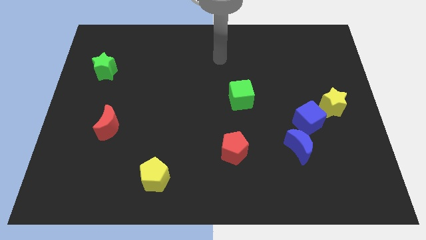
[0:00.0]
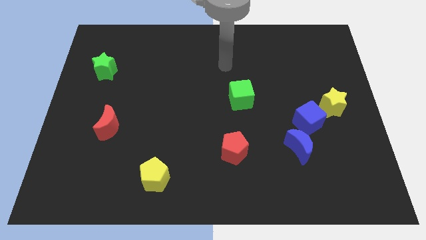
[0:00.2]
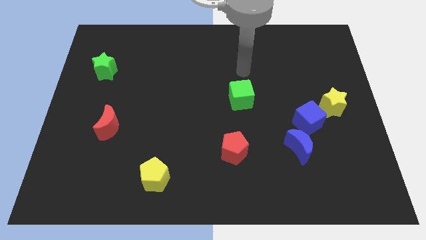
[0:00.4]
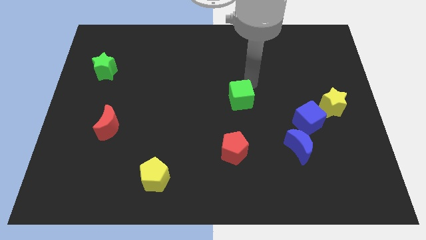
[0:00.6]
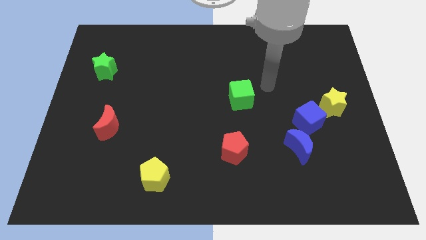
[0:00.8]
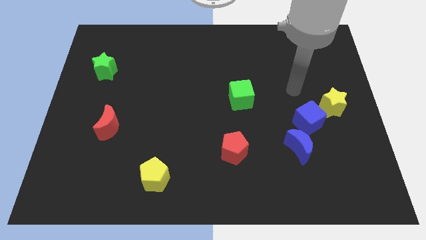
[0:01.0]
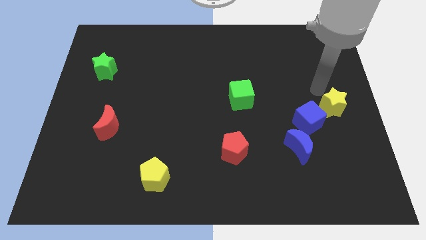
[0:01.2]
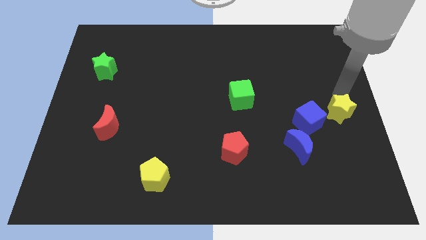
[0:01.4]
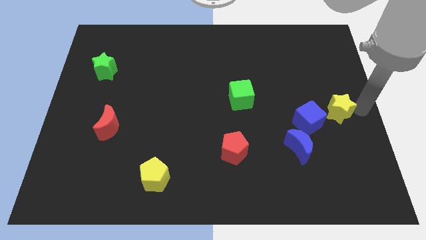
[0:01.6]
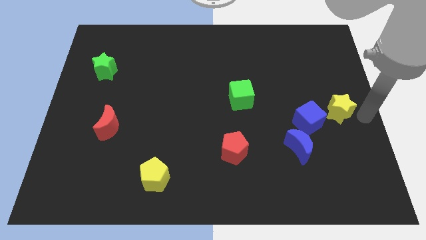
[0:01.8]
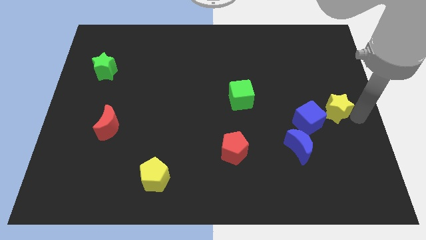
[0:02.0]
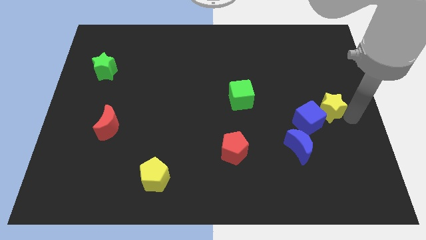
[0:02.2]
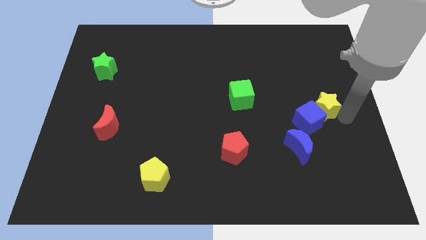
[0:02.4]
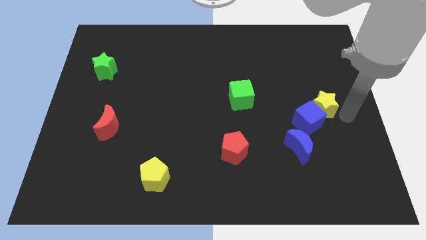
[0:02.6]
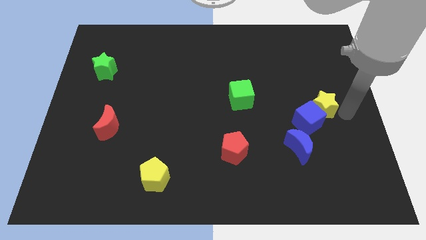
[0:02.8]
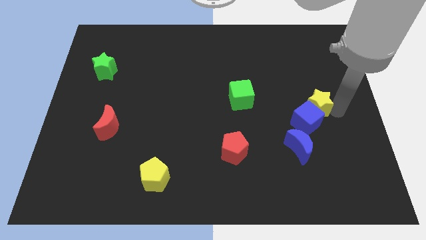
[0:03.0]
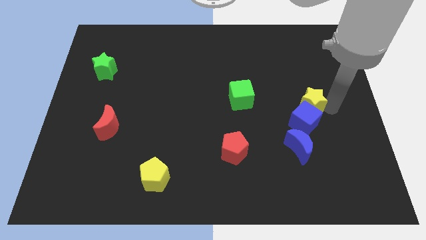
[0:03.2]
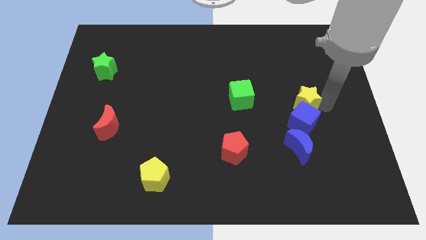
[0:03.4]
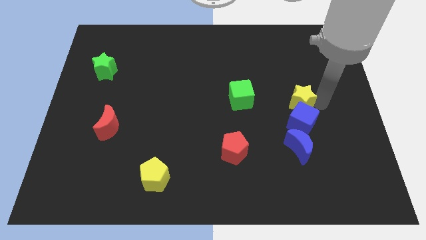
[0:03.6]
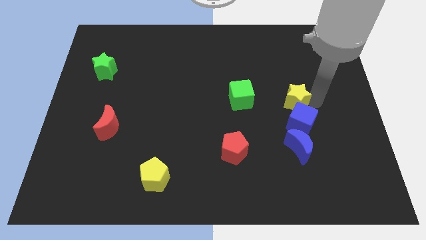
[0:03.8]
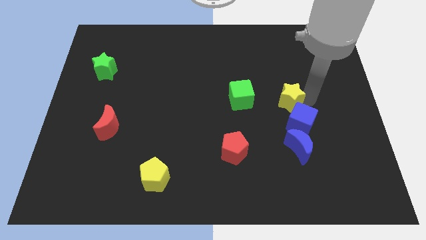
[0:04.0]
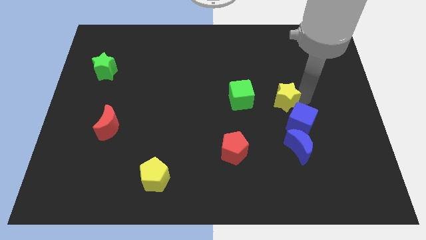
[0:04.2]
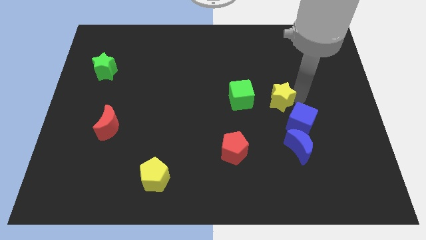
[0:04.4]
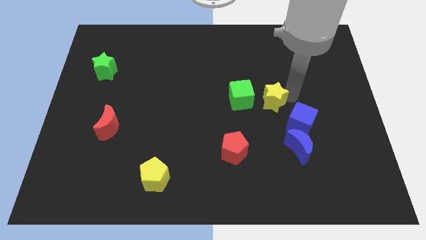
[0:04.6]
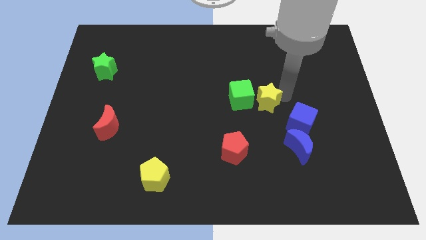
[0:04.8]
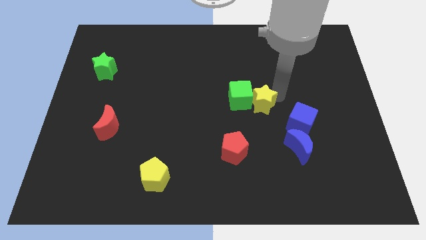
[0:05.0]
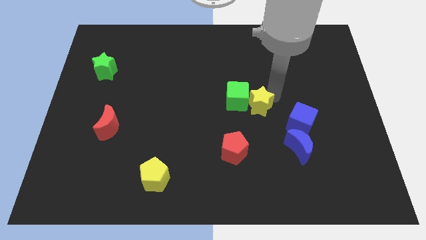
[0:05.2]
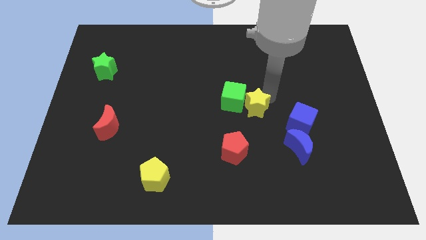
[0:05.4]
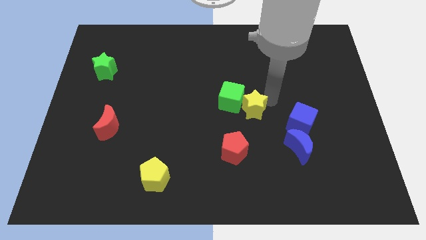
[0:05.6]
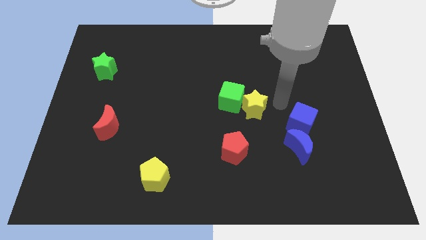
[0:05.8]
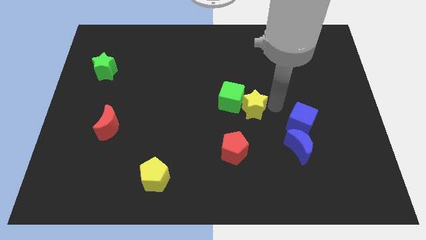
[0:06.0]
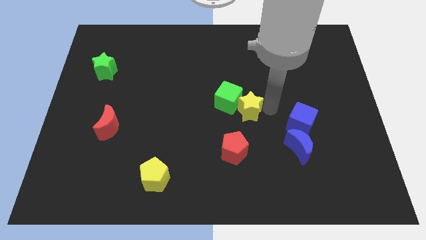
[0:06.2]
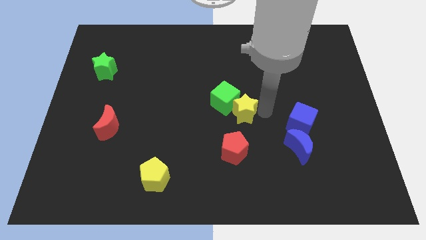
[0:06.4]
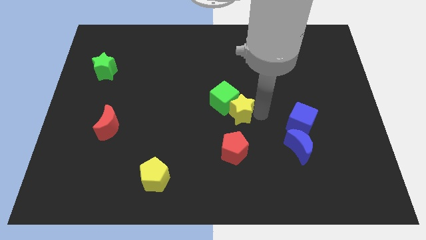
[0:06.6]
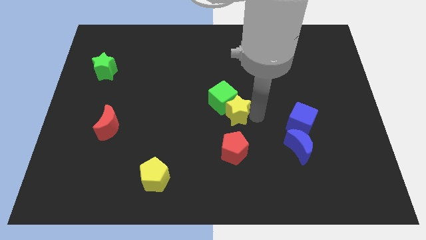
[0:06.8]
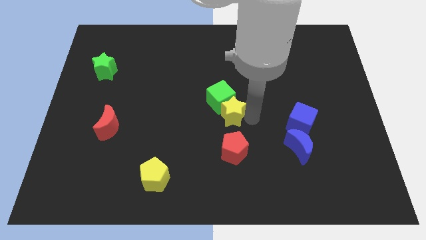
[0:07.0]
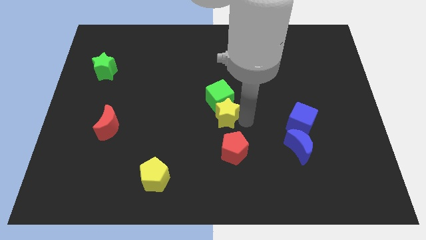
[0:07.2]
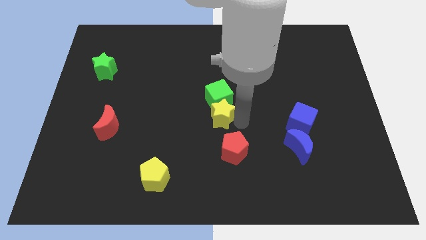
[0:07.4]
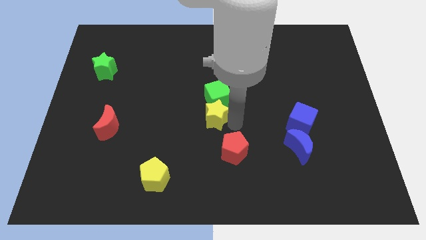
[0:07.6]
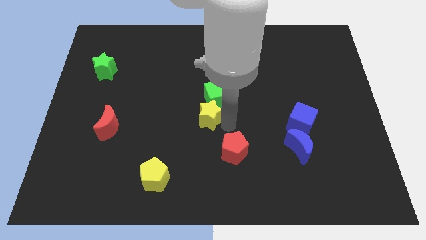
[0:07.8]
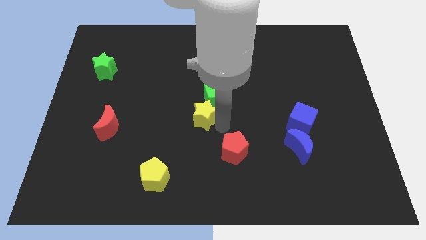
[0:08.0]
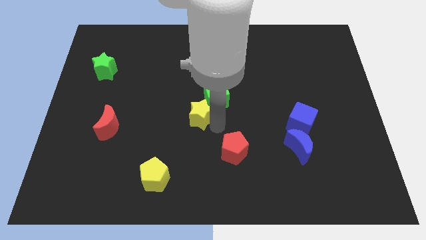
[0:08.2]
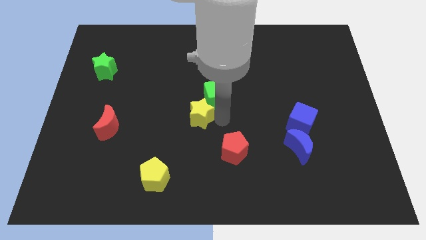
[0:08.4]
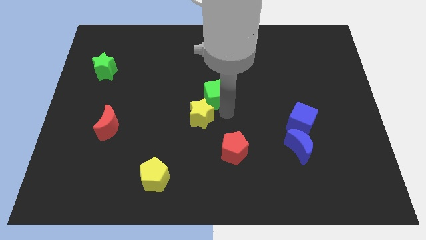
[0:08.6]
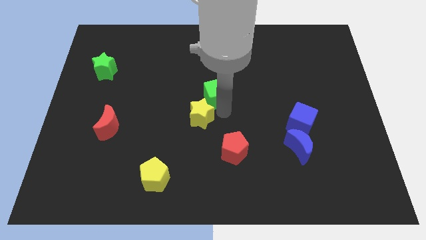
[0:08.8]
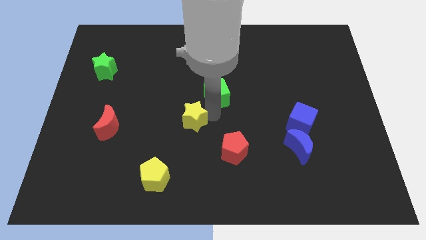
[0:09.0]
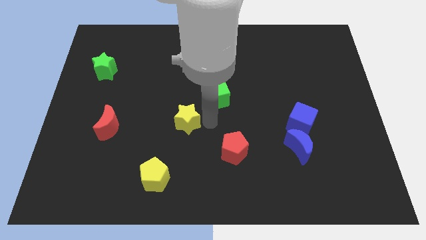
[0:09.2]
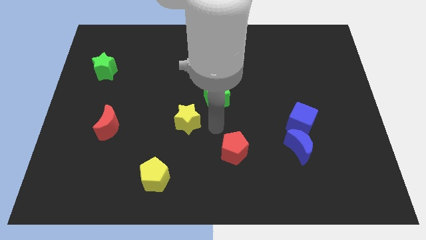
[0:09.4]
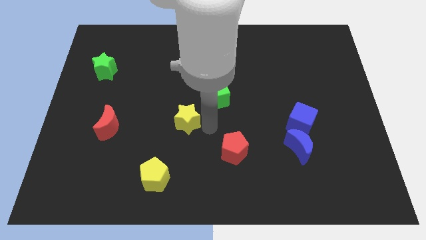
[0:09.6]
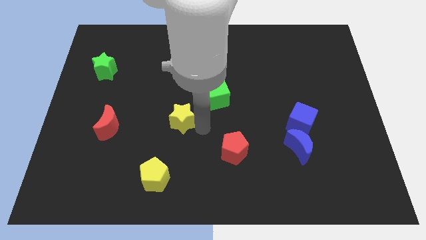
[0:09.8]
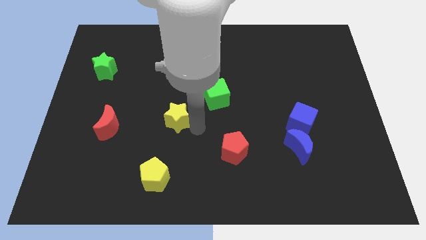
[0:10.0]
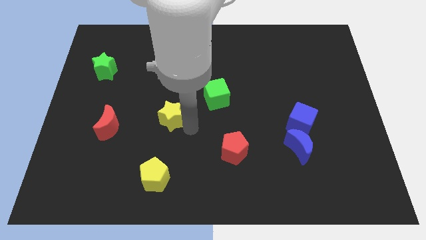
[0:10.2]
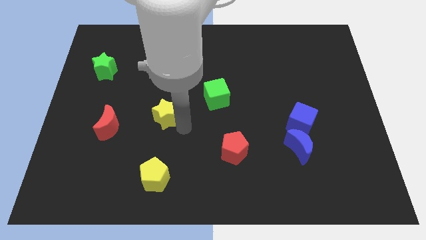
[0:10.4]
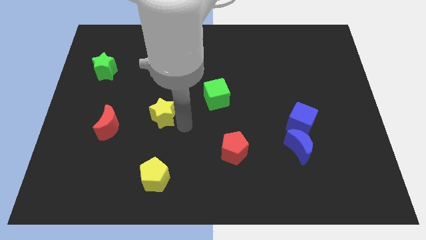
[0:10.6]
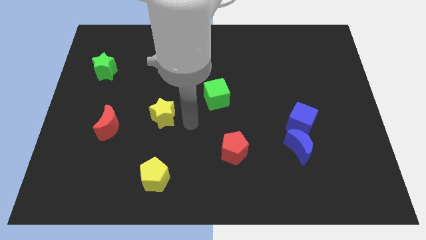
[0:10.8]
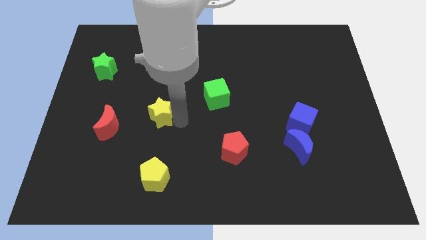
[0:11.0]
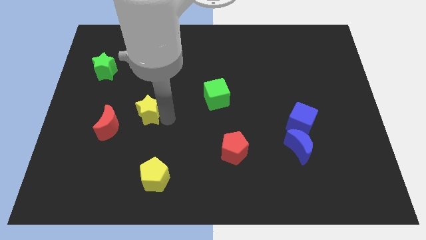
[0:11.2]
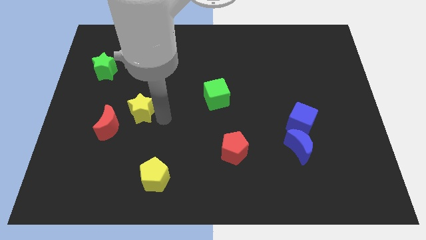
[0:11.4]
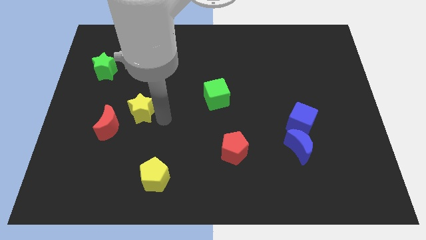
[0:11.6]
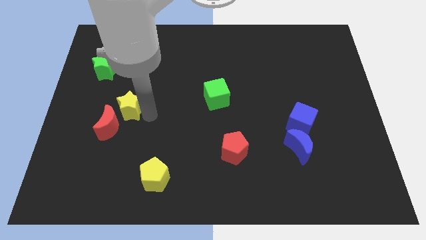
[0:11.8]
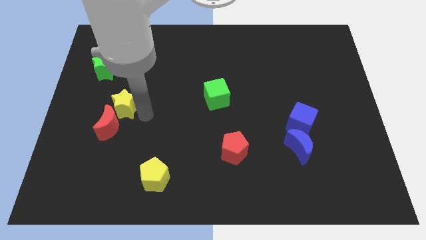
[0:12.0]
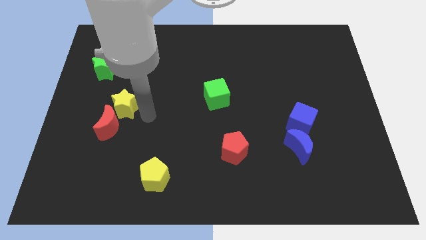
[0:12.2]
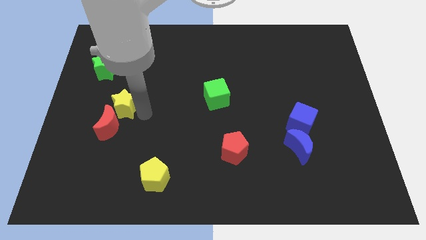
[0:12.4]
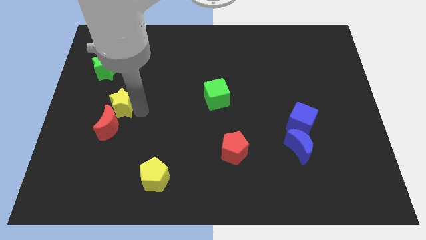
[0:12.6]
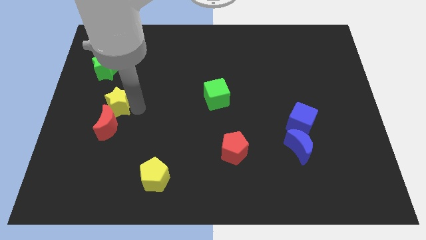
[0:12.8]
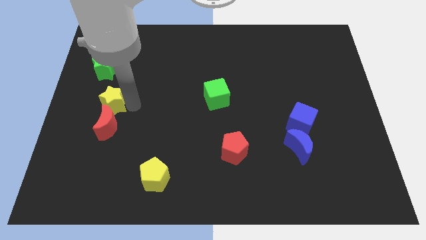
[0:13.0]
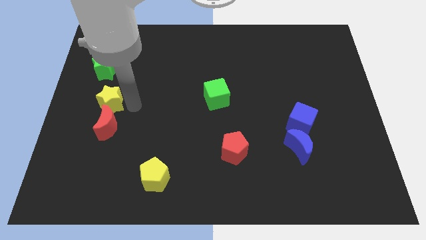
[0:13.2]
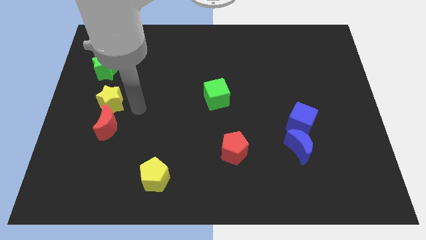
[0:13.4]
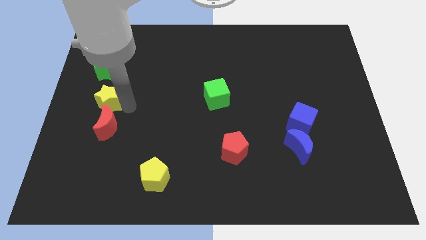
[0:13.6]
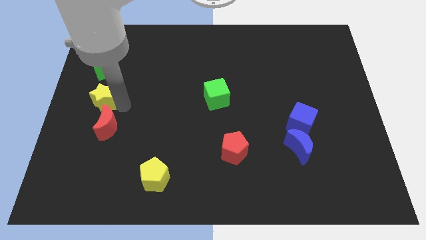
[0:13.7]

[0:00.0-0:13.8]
move the yellow star to the left side

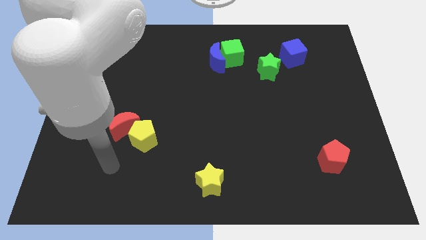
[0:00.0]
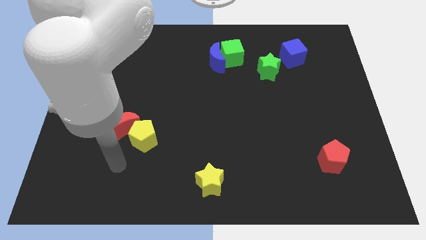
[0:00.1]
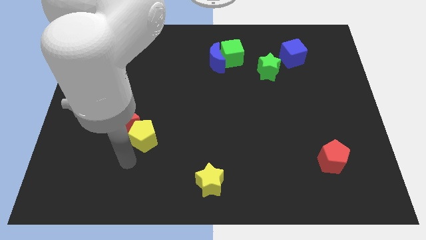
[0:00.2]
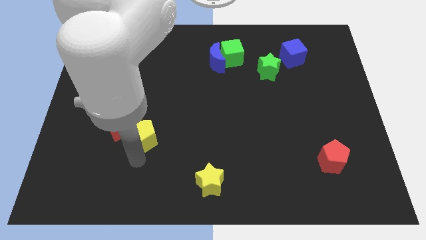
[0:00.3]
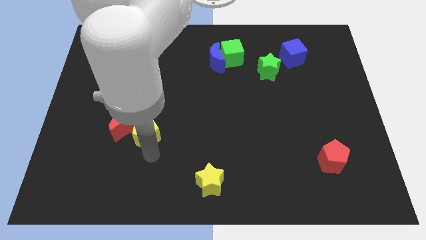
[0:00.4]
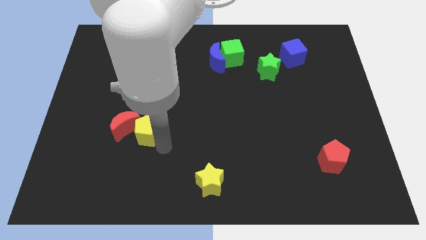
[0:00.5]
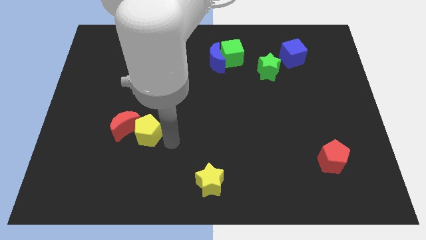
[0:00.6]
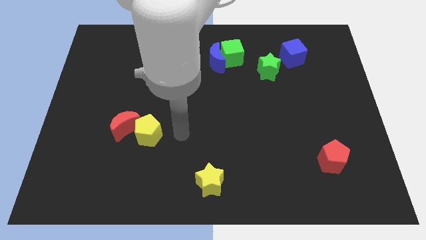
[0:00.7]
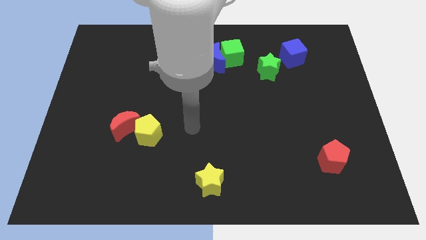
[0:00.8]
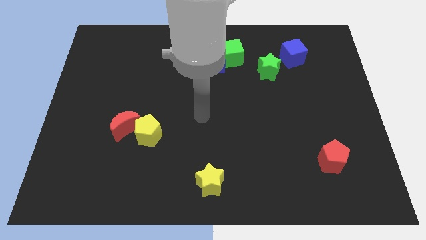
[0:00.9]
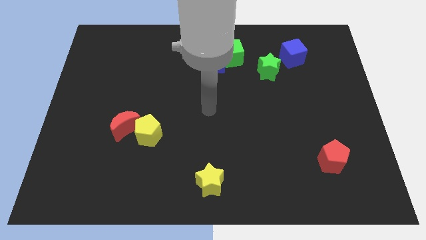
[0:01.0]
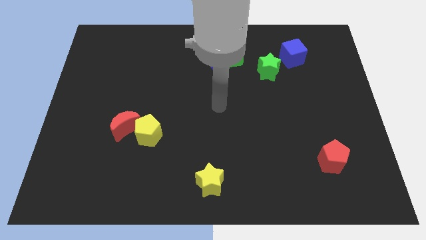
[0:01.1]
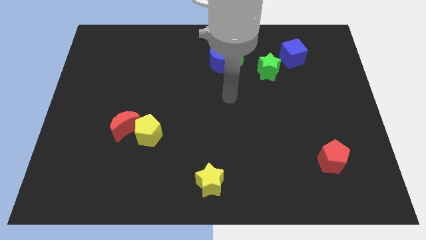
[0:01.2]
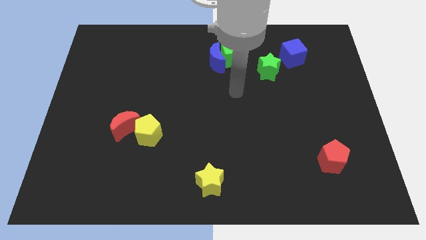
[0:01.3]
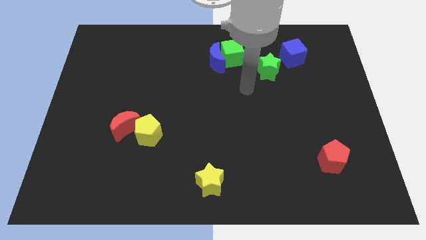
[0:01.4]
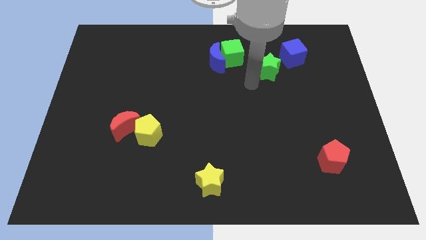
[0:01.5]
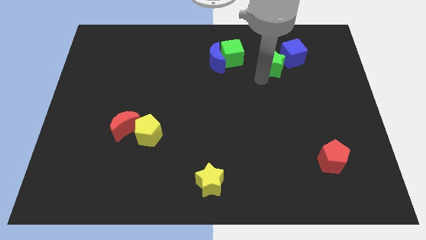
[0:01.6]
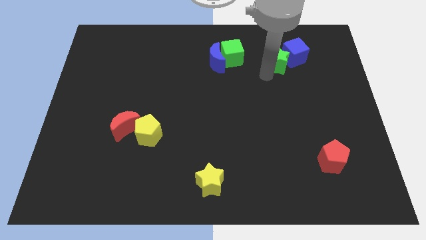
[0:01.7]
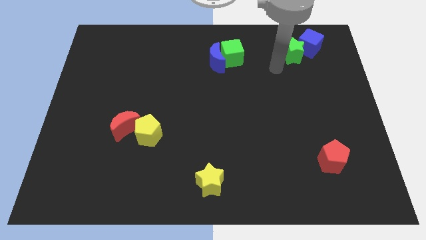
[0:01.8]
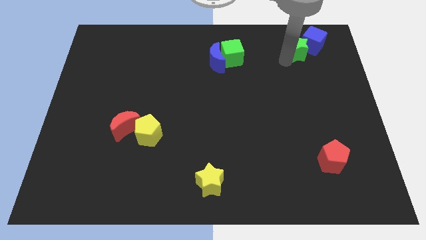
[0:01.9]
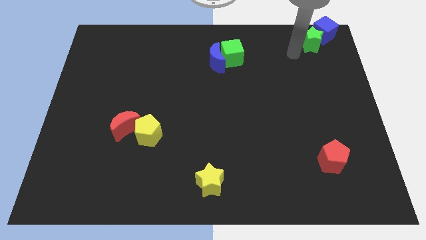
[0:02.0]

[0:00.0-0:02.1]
slide the blue cube to the top right of the board
